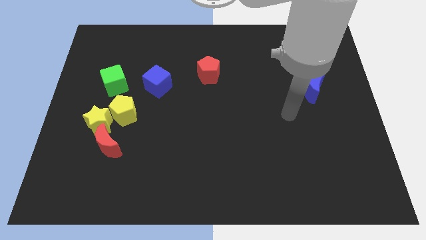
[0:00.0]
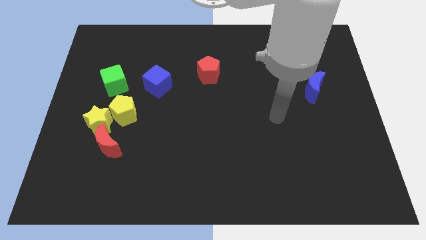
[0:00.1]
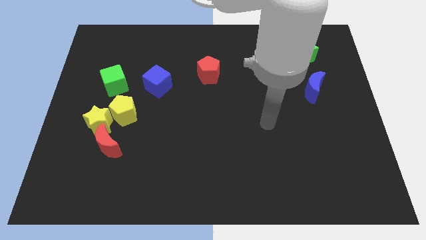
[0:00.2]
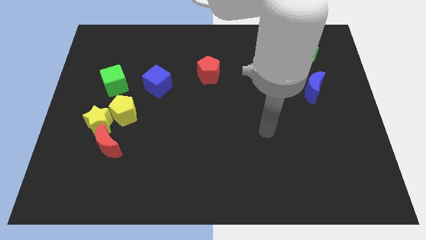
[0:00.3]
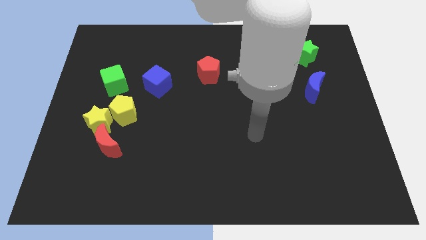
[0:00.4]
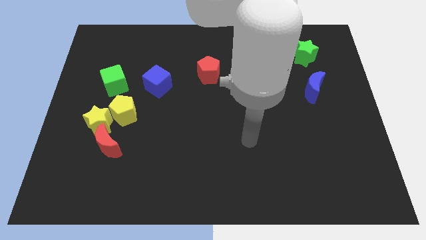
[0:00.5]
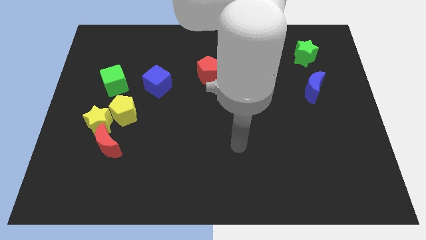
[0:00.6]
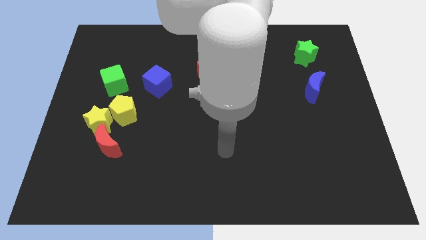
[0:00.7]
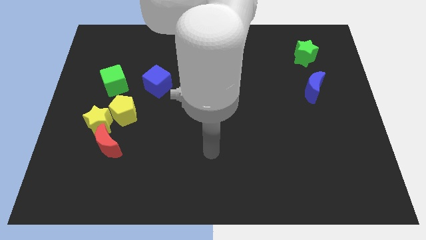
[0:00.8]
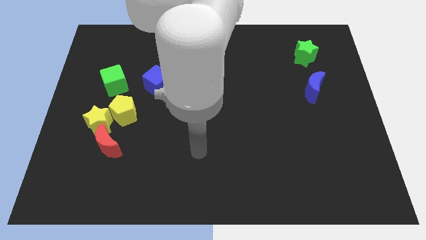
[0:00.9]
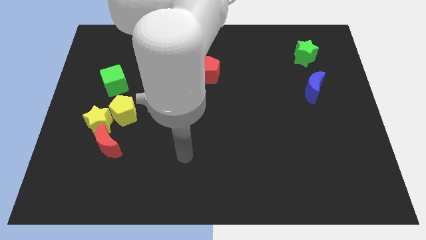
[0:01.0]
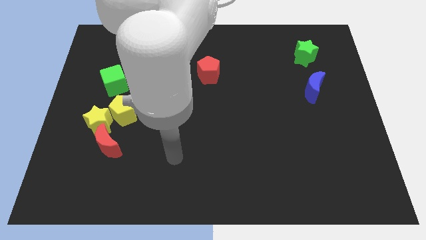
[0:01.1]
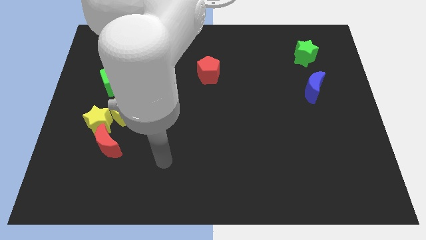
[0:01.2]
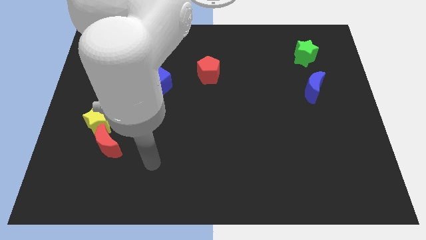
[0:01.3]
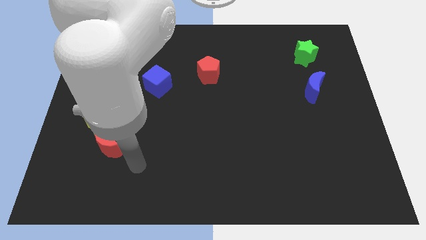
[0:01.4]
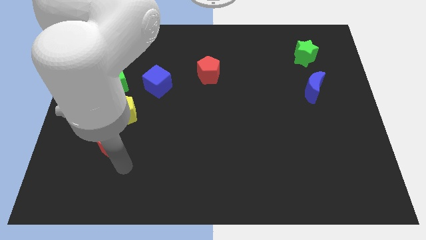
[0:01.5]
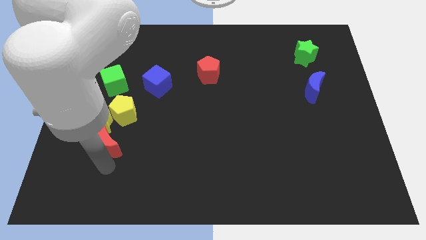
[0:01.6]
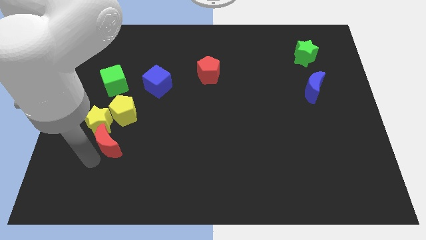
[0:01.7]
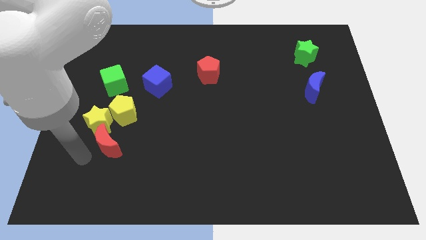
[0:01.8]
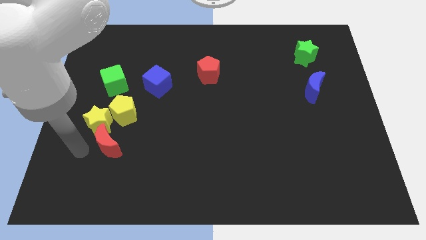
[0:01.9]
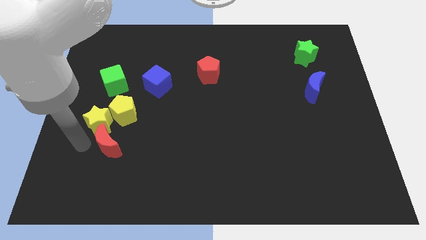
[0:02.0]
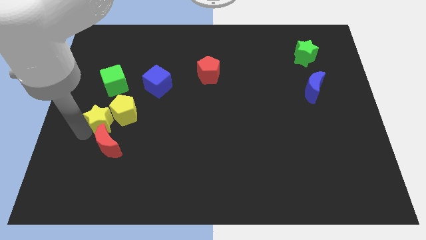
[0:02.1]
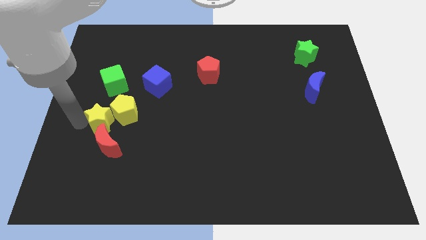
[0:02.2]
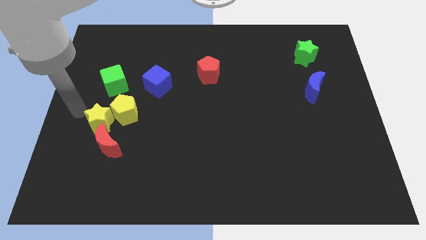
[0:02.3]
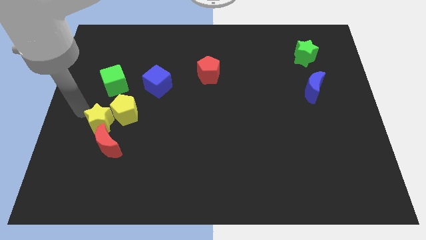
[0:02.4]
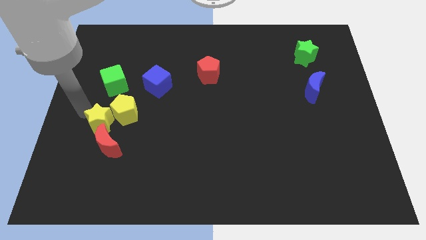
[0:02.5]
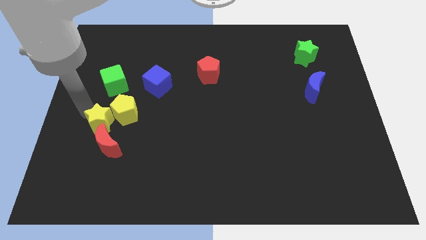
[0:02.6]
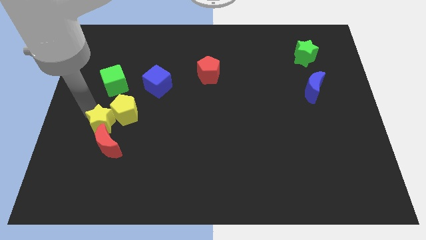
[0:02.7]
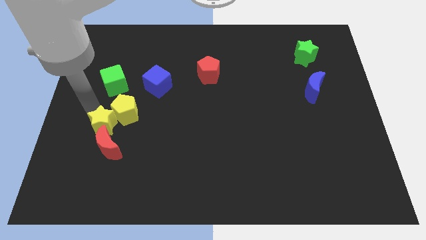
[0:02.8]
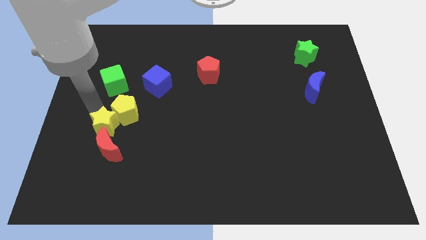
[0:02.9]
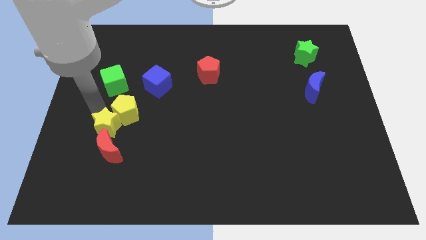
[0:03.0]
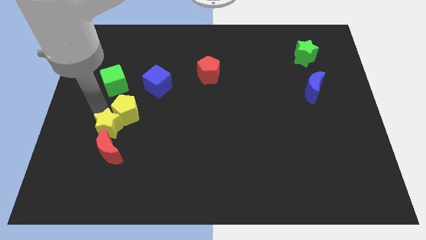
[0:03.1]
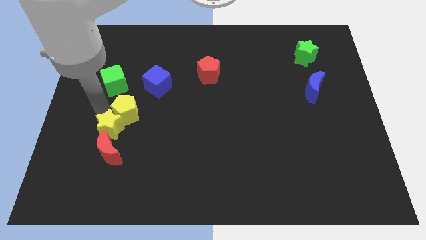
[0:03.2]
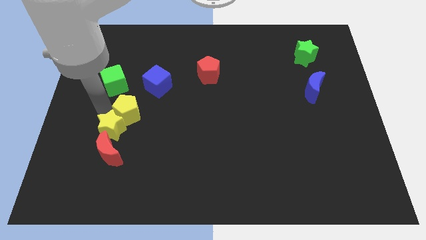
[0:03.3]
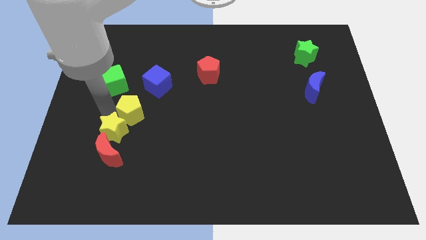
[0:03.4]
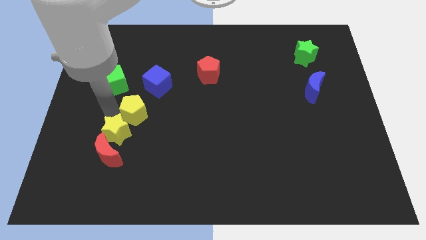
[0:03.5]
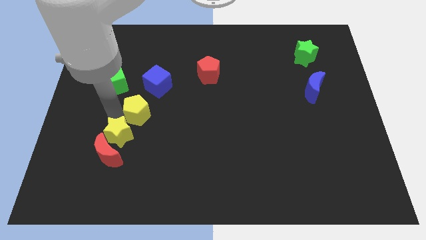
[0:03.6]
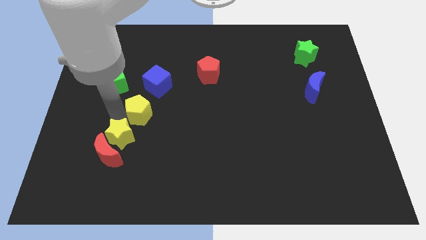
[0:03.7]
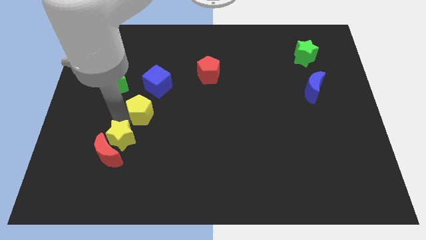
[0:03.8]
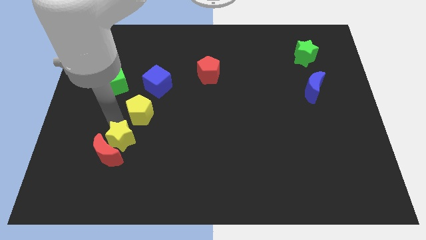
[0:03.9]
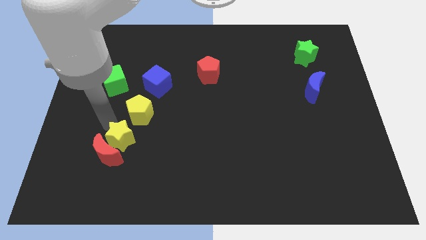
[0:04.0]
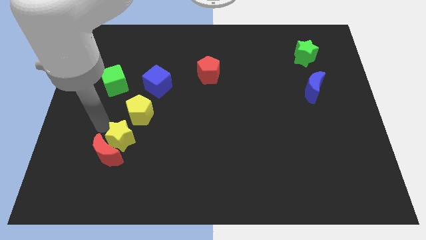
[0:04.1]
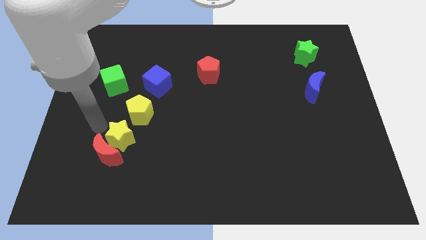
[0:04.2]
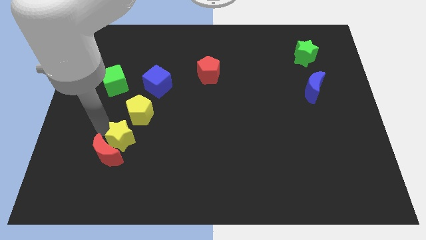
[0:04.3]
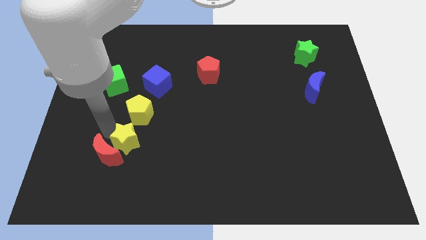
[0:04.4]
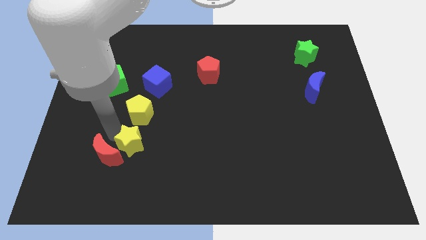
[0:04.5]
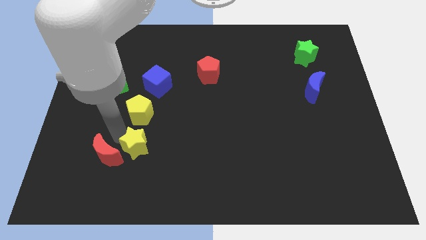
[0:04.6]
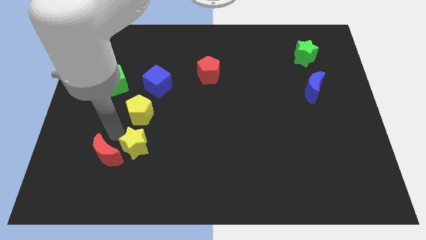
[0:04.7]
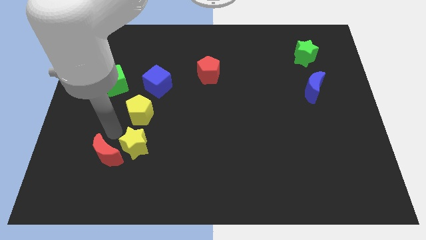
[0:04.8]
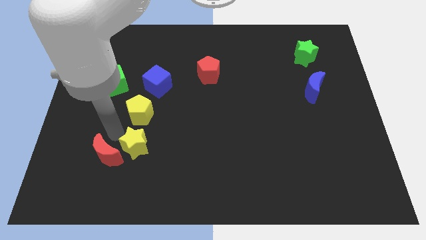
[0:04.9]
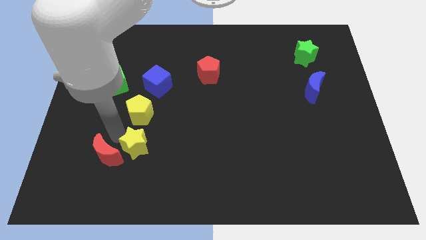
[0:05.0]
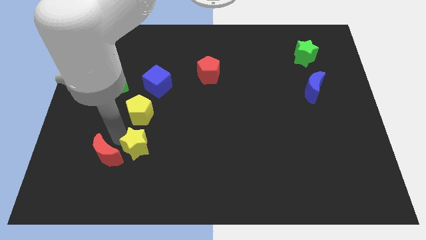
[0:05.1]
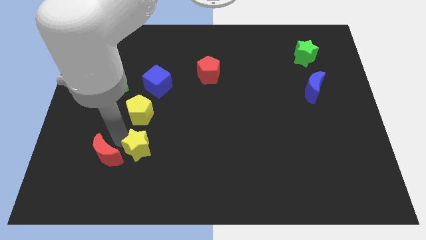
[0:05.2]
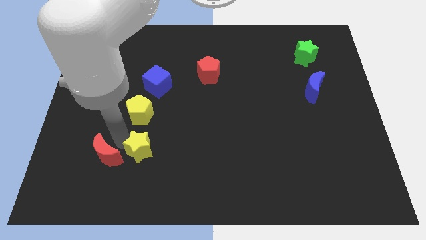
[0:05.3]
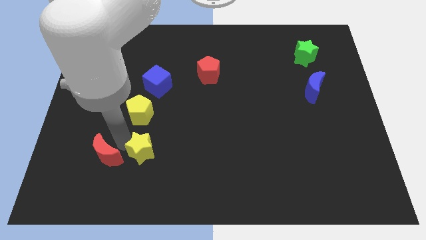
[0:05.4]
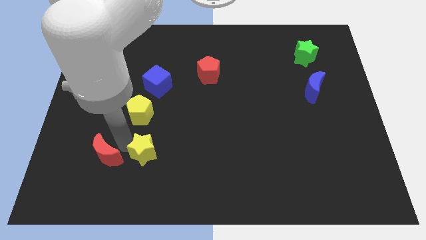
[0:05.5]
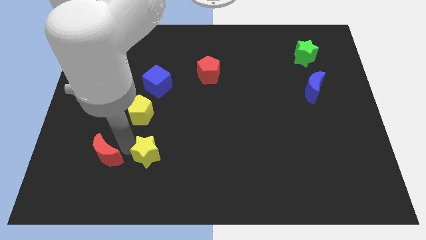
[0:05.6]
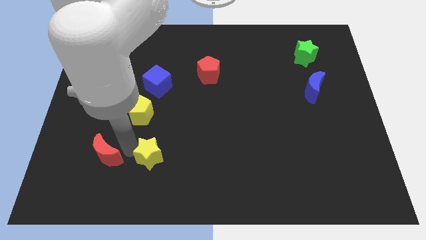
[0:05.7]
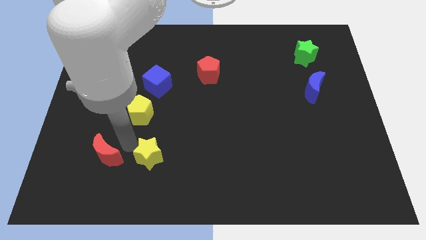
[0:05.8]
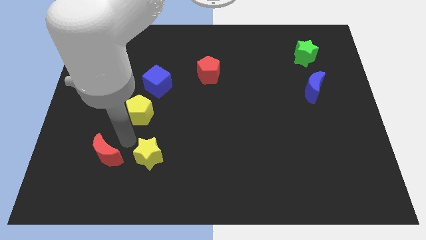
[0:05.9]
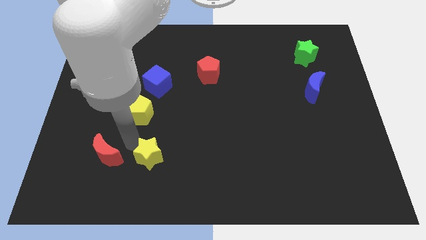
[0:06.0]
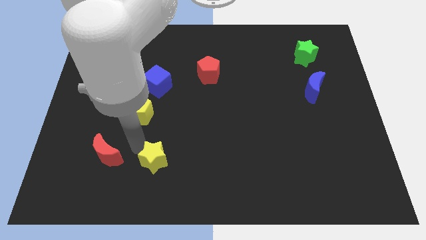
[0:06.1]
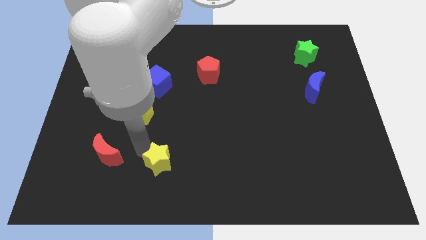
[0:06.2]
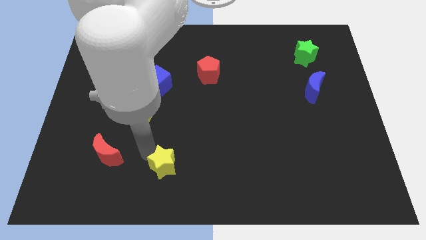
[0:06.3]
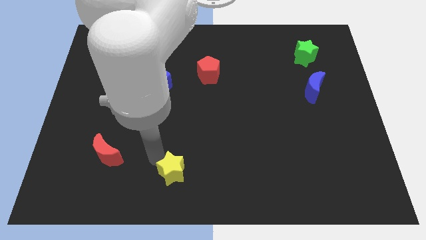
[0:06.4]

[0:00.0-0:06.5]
slide the yellow star to the bottom side

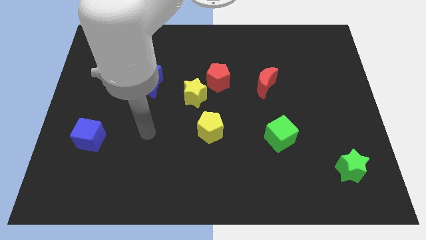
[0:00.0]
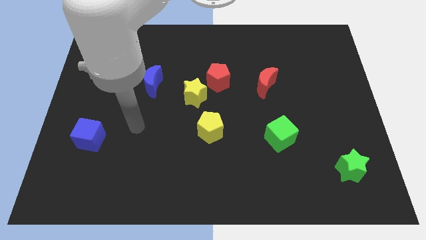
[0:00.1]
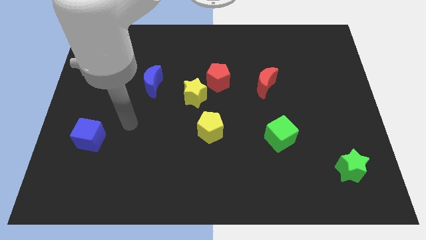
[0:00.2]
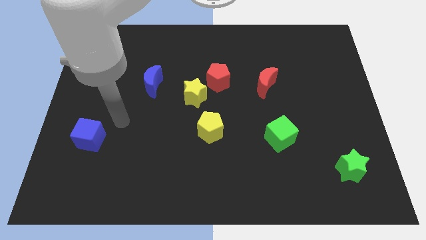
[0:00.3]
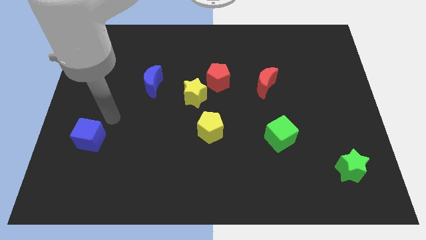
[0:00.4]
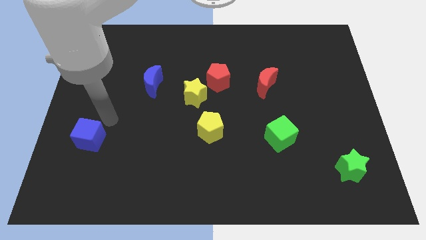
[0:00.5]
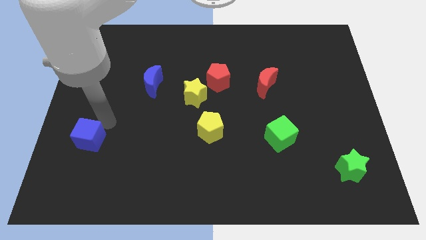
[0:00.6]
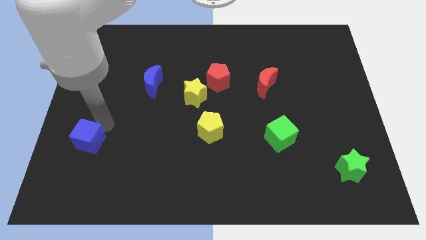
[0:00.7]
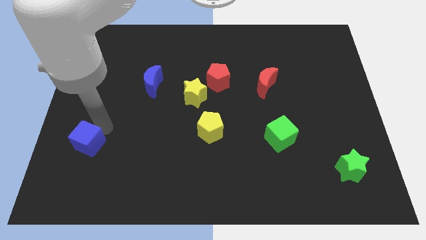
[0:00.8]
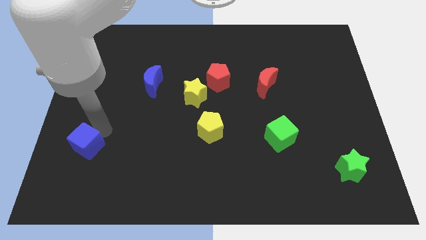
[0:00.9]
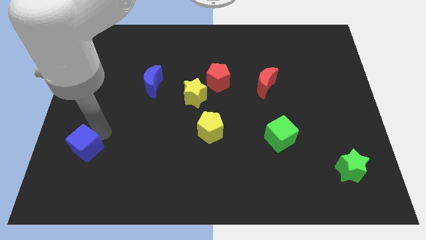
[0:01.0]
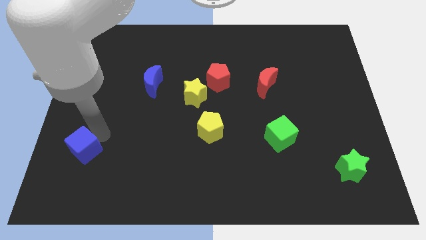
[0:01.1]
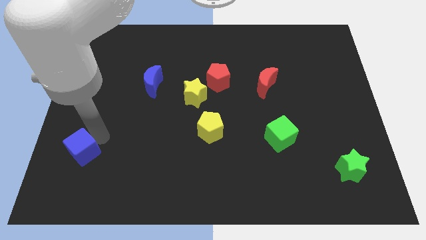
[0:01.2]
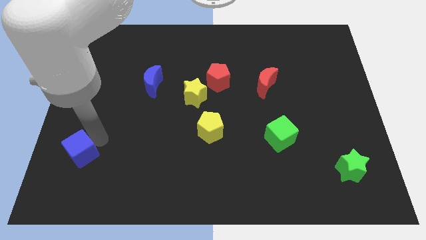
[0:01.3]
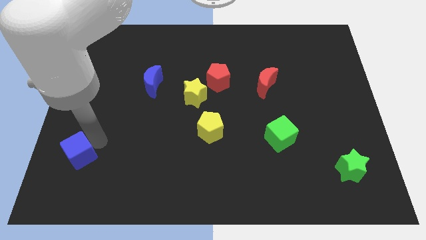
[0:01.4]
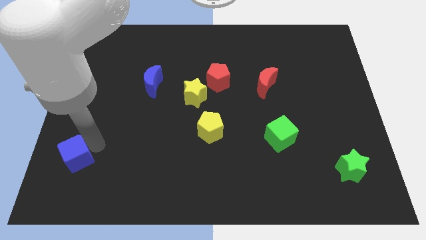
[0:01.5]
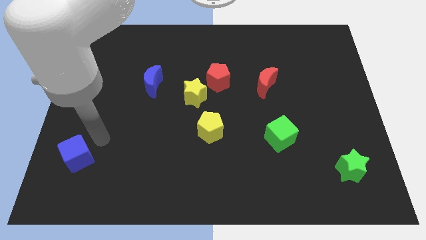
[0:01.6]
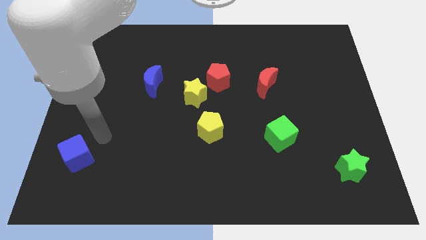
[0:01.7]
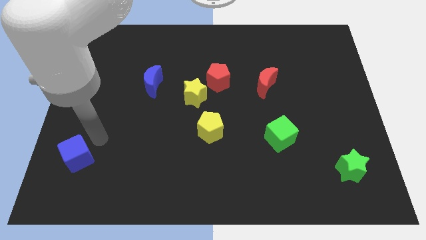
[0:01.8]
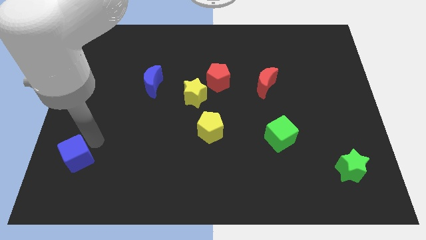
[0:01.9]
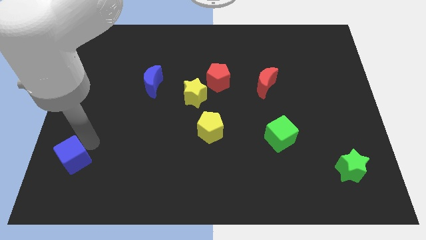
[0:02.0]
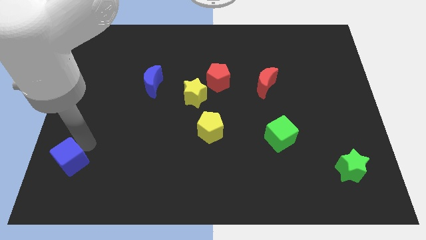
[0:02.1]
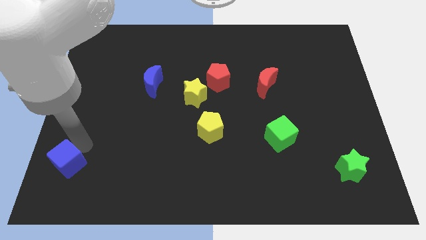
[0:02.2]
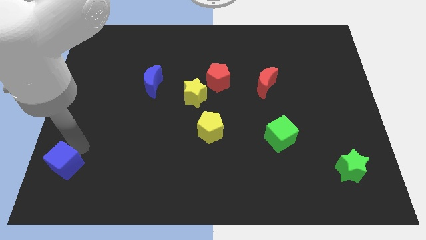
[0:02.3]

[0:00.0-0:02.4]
put the blue cube to the bottom left
